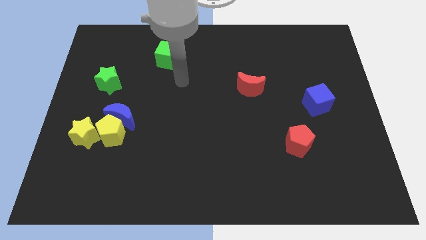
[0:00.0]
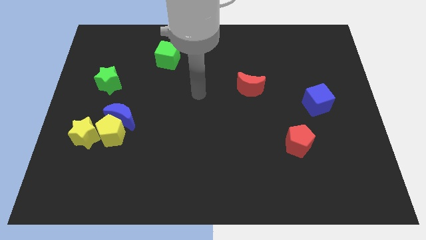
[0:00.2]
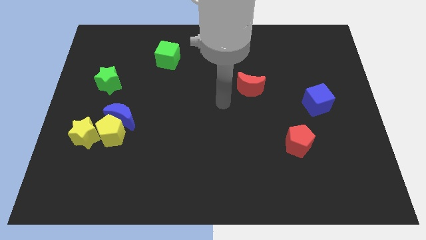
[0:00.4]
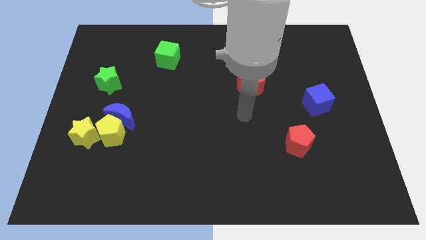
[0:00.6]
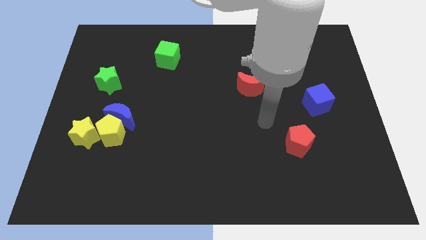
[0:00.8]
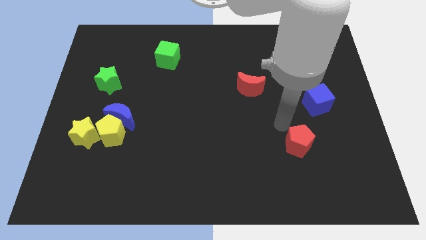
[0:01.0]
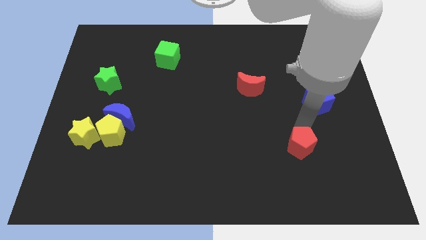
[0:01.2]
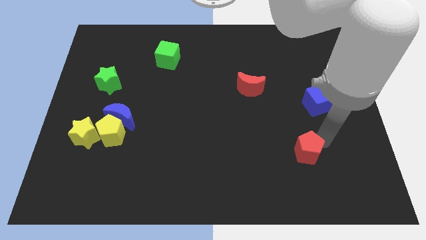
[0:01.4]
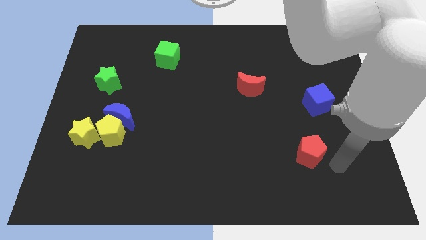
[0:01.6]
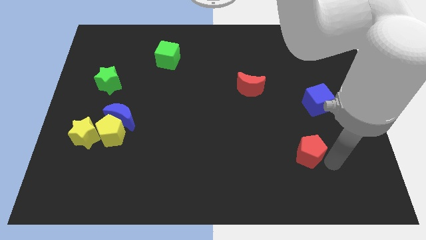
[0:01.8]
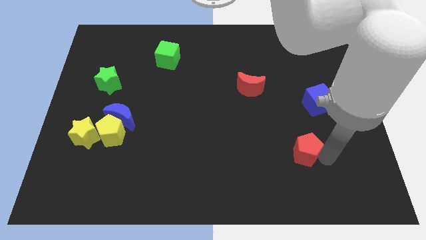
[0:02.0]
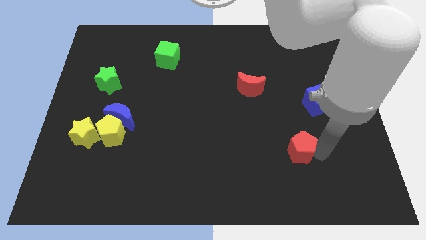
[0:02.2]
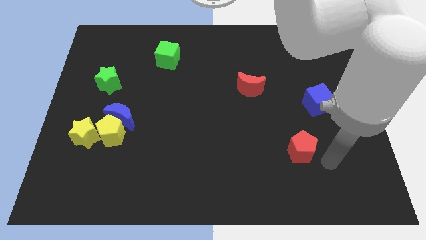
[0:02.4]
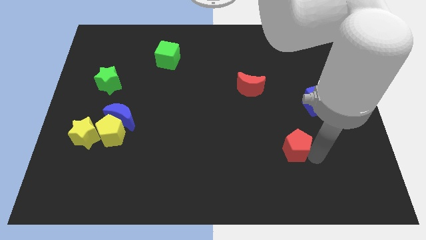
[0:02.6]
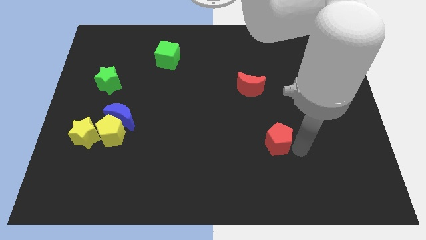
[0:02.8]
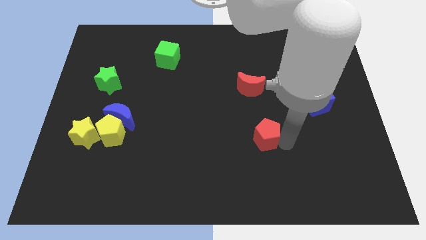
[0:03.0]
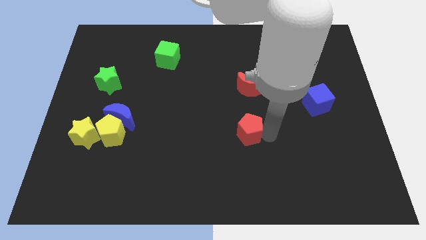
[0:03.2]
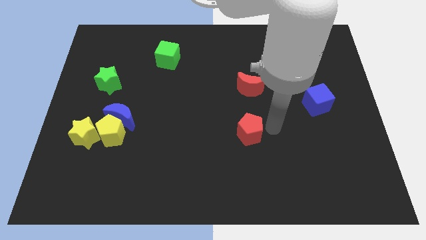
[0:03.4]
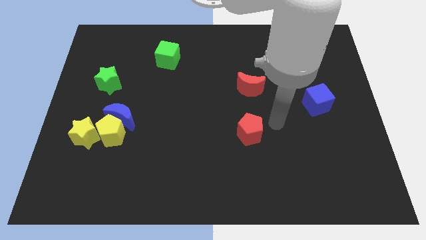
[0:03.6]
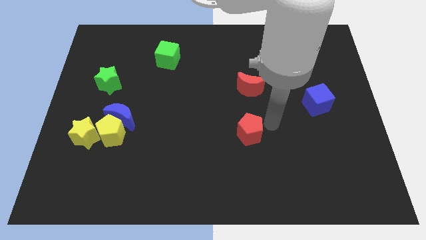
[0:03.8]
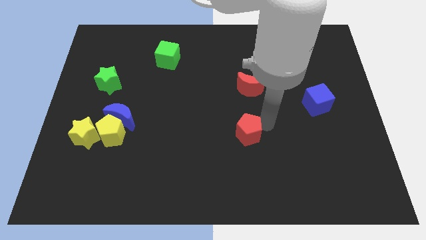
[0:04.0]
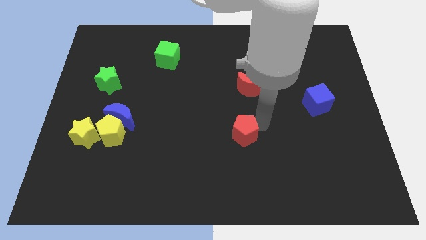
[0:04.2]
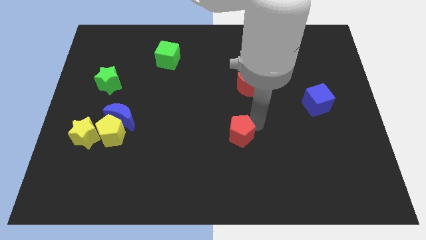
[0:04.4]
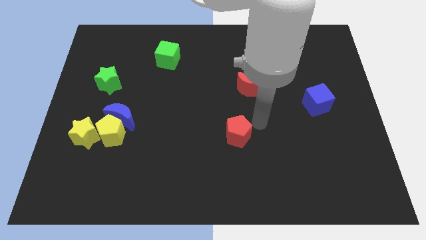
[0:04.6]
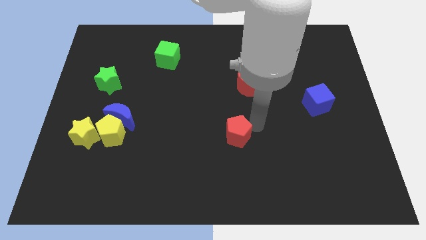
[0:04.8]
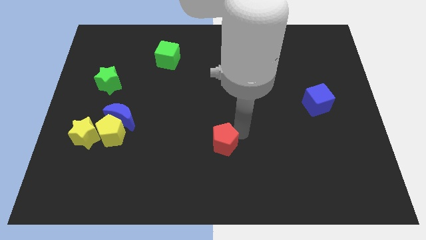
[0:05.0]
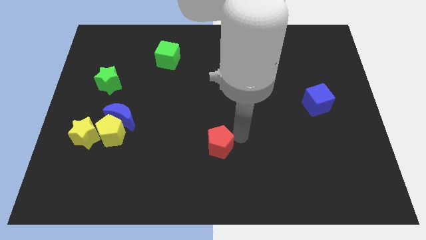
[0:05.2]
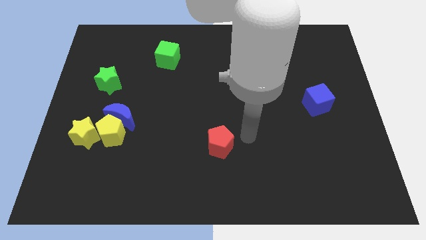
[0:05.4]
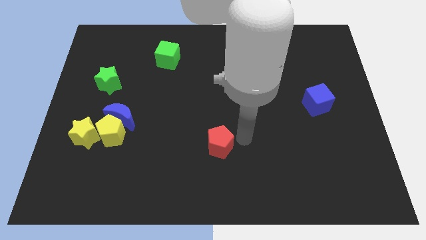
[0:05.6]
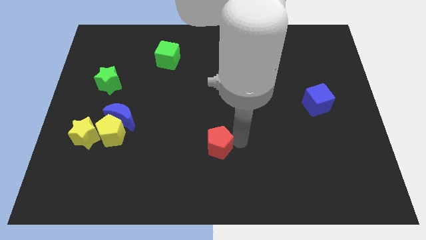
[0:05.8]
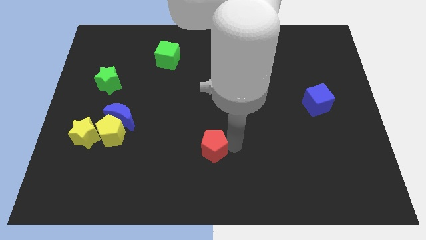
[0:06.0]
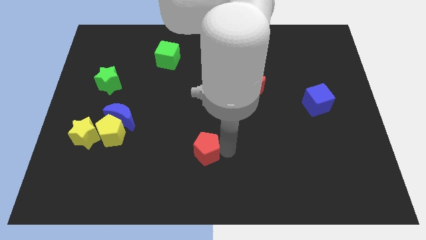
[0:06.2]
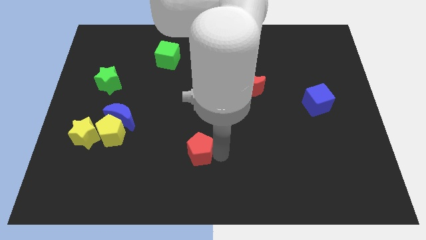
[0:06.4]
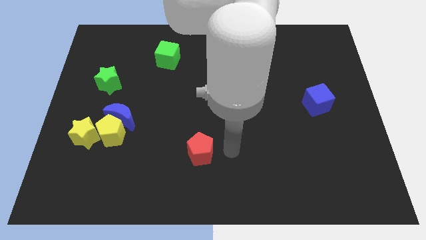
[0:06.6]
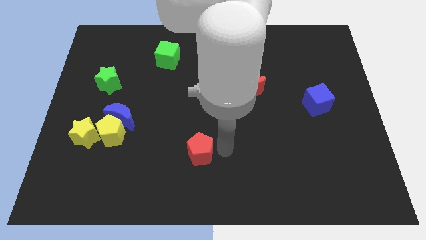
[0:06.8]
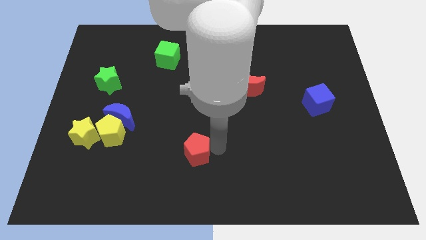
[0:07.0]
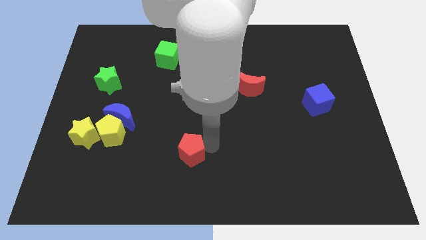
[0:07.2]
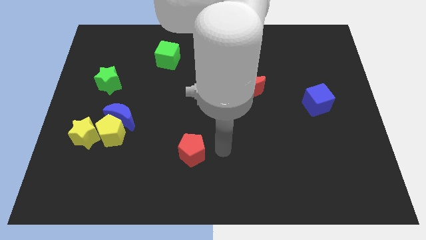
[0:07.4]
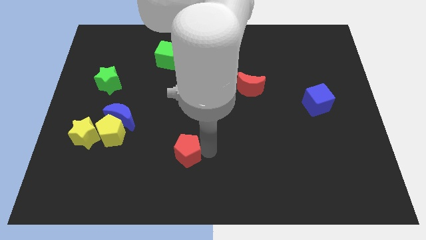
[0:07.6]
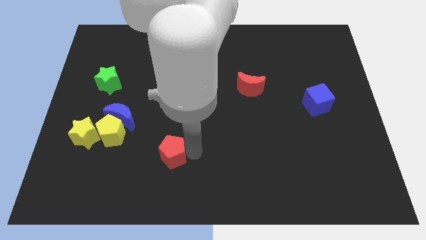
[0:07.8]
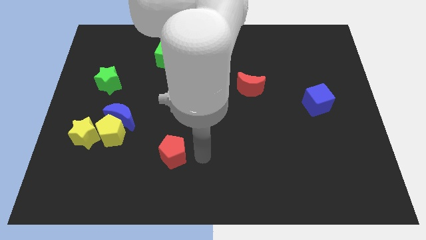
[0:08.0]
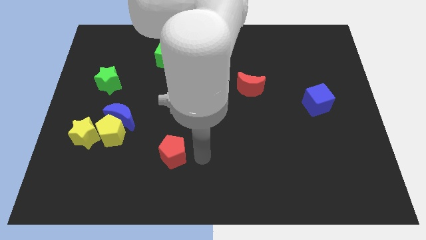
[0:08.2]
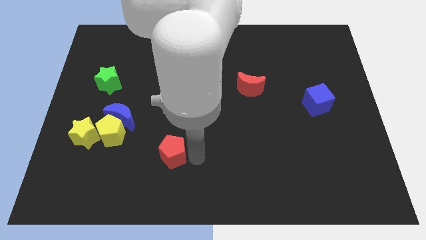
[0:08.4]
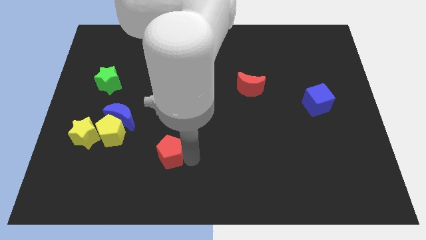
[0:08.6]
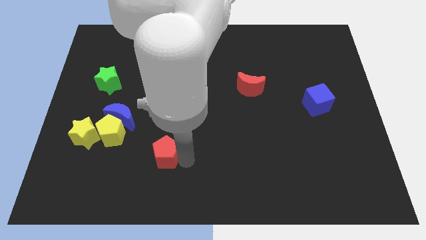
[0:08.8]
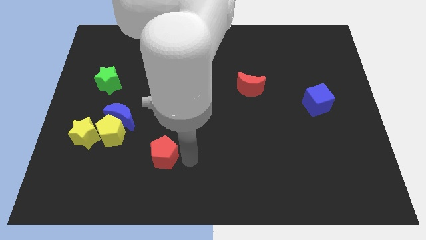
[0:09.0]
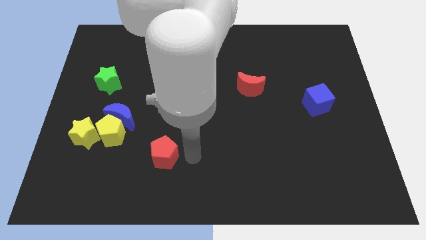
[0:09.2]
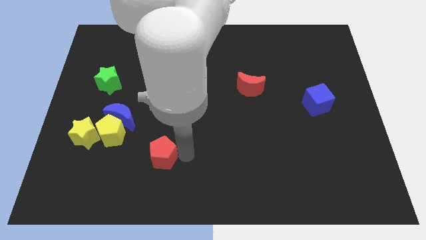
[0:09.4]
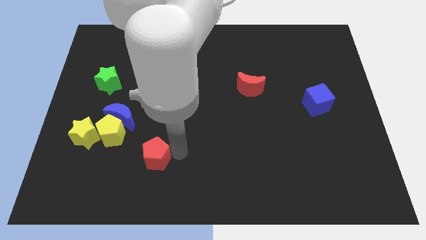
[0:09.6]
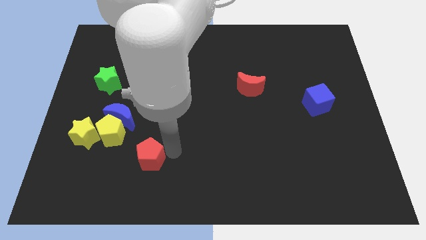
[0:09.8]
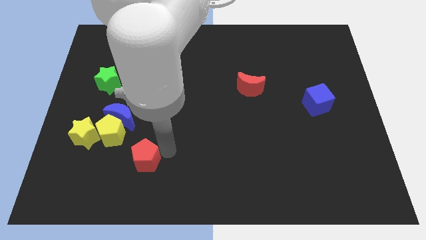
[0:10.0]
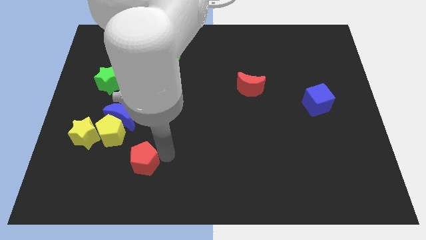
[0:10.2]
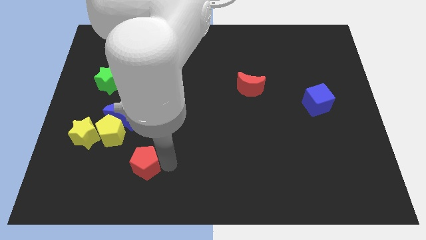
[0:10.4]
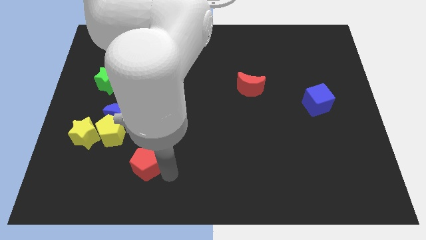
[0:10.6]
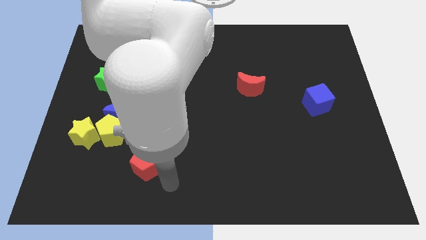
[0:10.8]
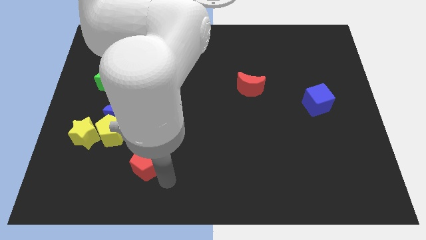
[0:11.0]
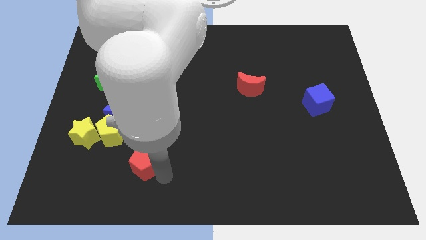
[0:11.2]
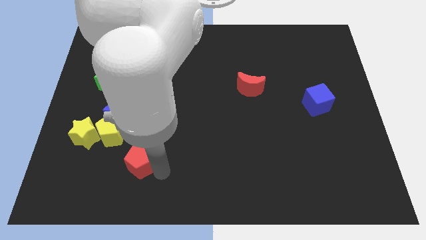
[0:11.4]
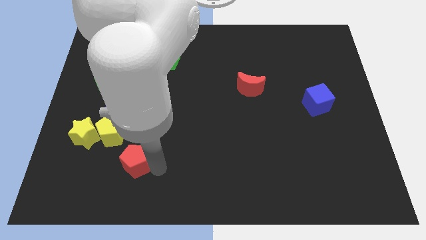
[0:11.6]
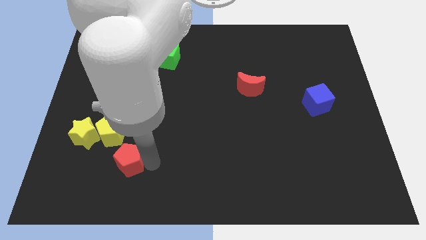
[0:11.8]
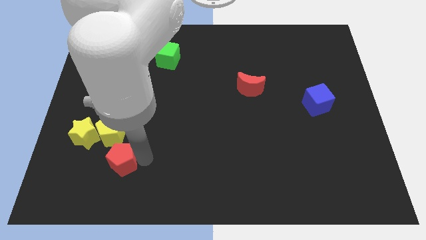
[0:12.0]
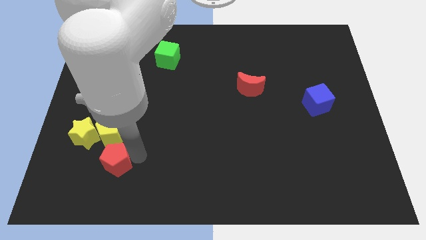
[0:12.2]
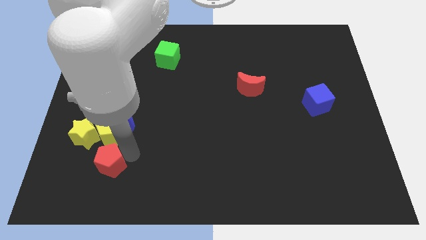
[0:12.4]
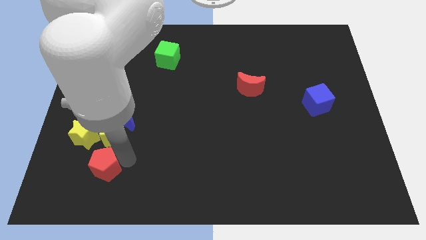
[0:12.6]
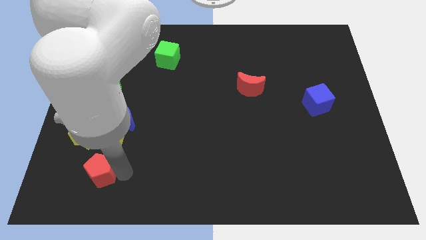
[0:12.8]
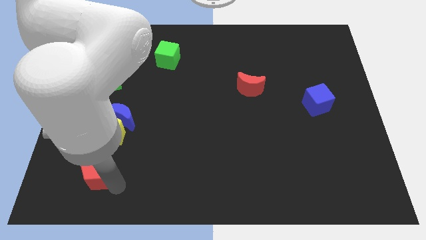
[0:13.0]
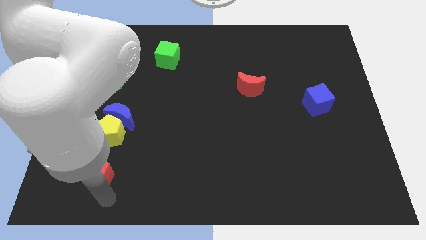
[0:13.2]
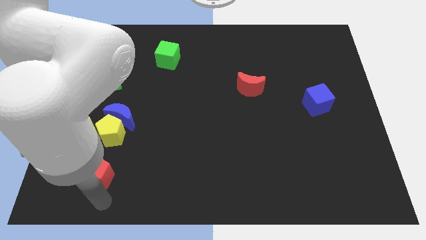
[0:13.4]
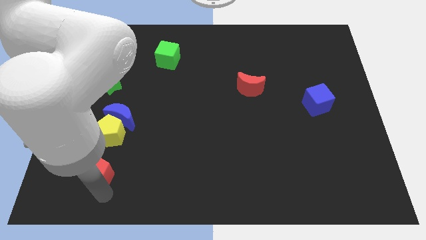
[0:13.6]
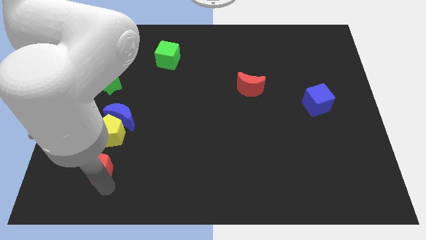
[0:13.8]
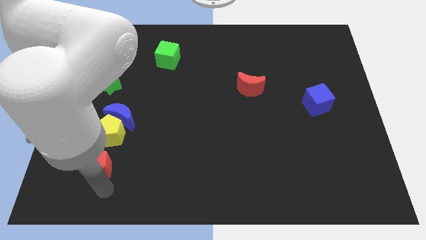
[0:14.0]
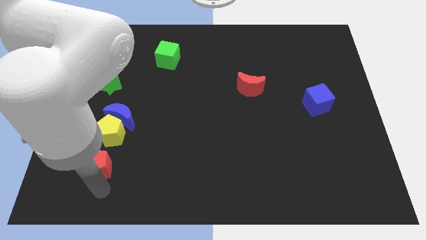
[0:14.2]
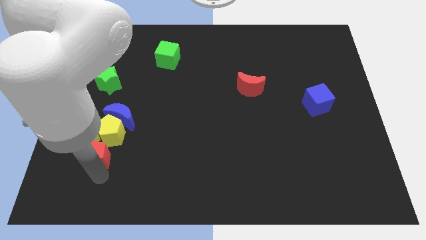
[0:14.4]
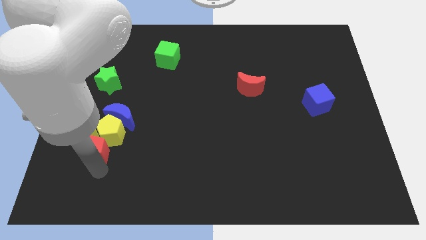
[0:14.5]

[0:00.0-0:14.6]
move the red pentagon next to the yellow star

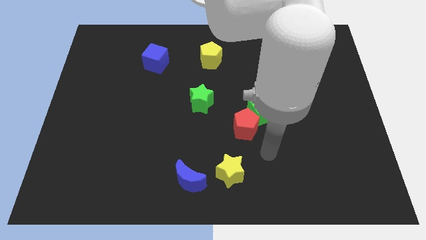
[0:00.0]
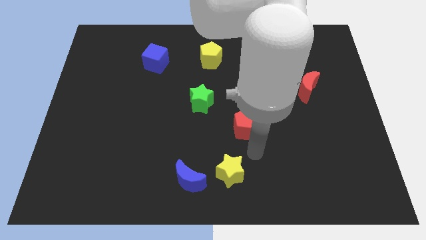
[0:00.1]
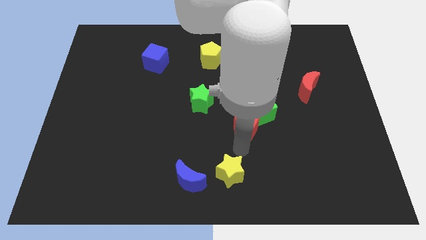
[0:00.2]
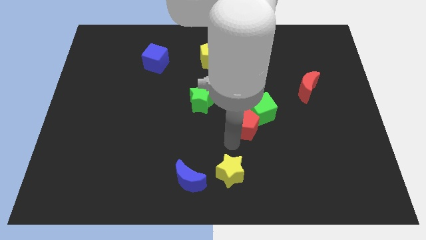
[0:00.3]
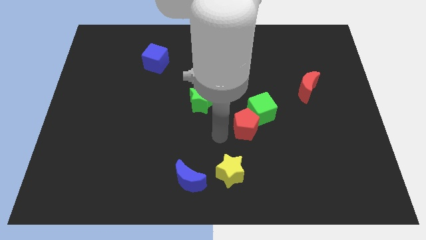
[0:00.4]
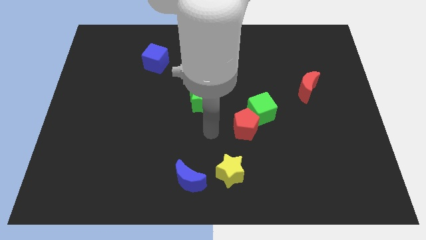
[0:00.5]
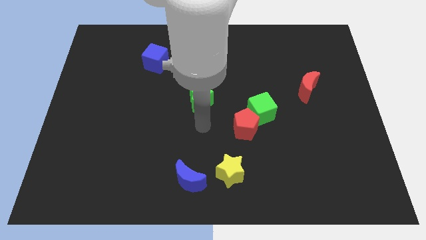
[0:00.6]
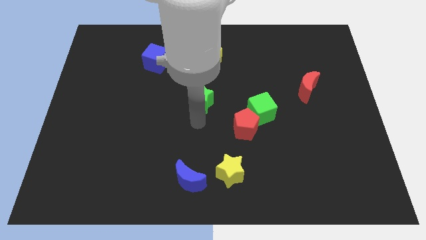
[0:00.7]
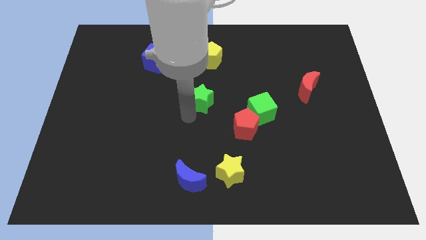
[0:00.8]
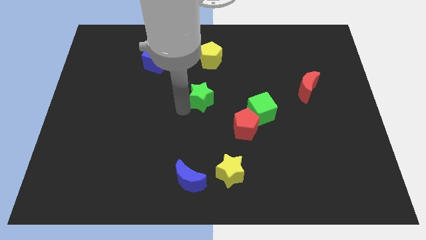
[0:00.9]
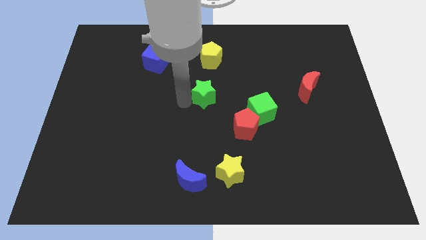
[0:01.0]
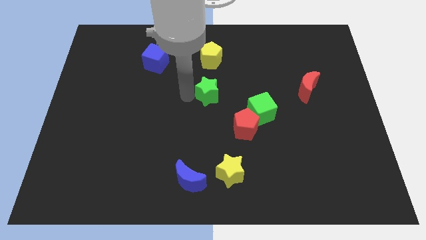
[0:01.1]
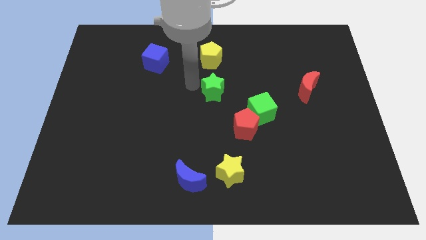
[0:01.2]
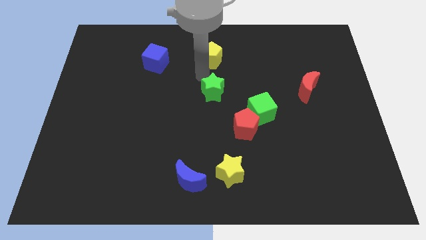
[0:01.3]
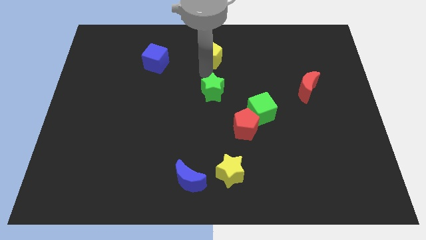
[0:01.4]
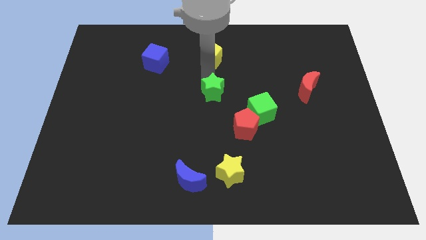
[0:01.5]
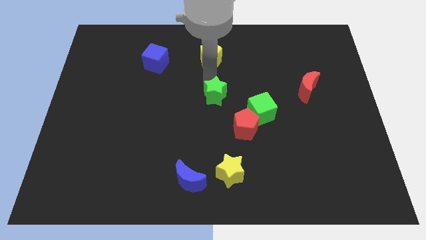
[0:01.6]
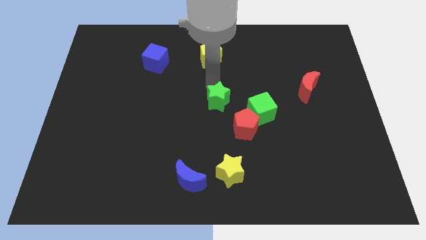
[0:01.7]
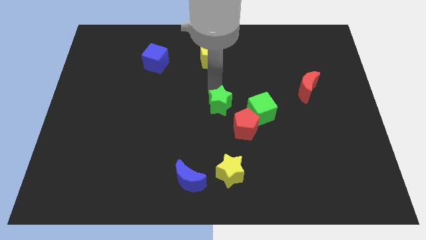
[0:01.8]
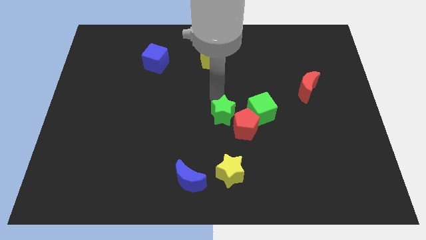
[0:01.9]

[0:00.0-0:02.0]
push the green star towards the red pentagon
